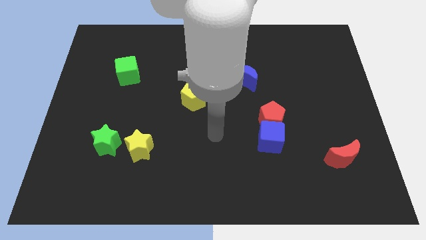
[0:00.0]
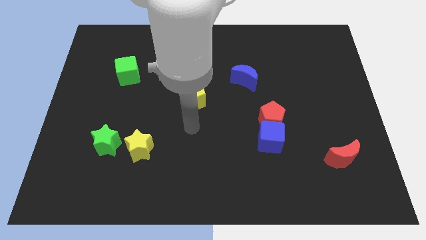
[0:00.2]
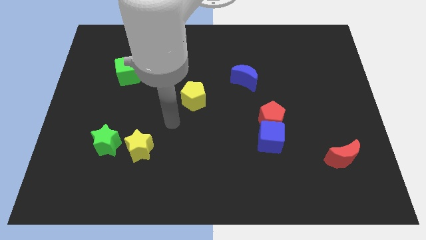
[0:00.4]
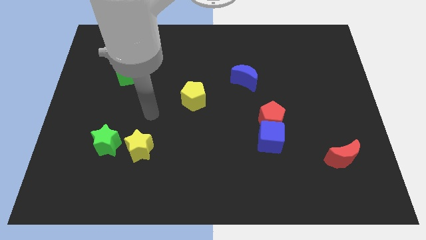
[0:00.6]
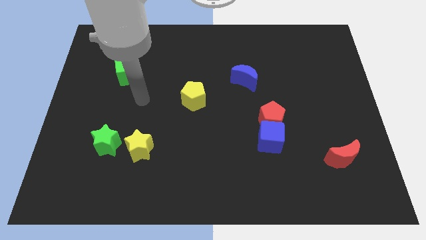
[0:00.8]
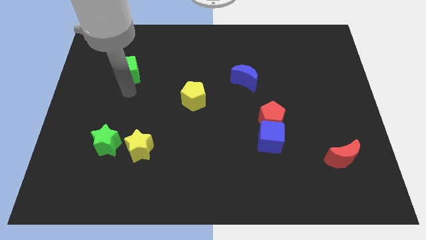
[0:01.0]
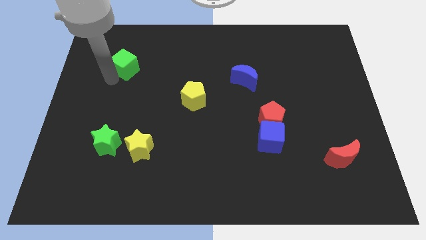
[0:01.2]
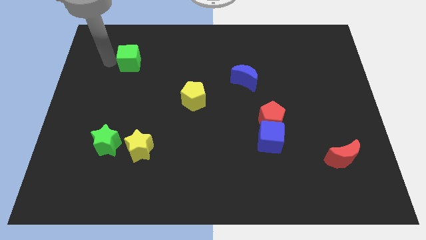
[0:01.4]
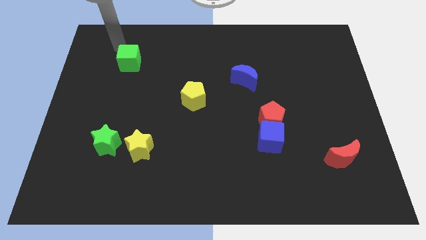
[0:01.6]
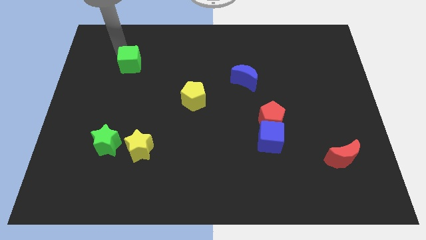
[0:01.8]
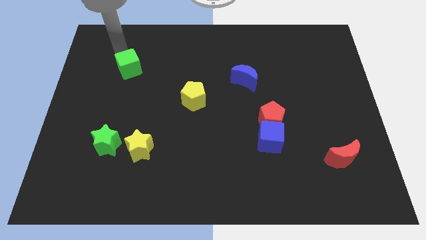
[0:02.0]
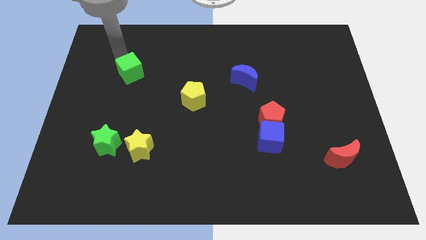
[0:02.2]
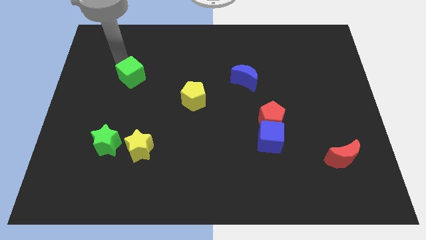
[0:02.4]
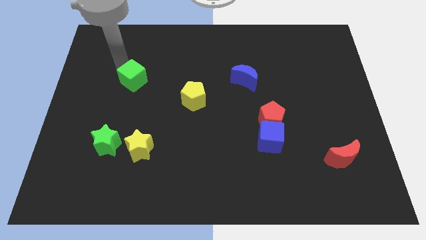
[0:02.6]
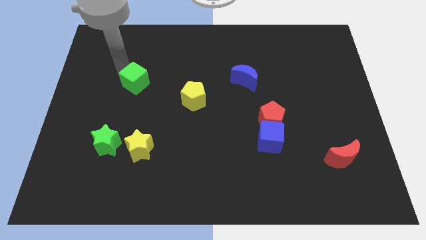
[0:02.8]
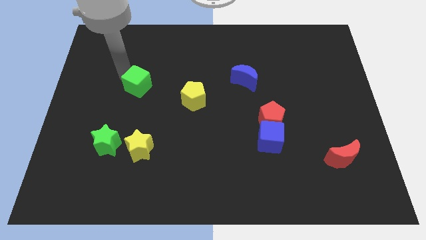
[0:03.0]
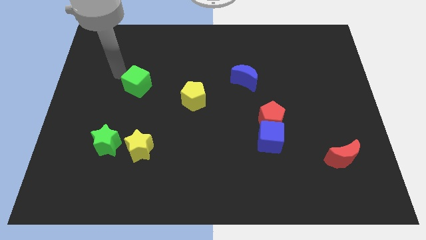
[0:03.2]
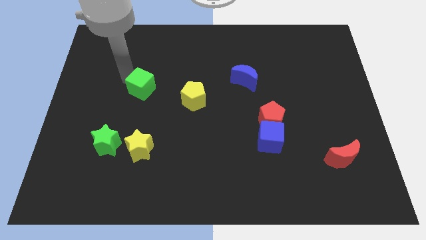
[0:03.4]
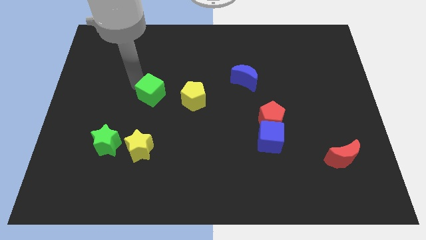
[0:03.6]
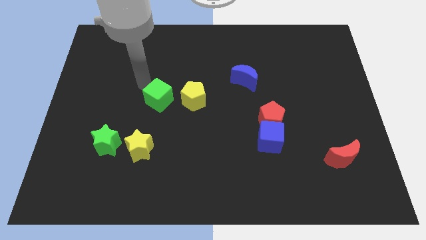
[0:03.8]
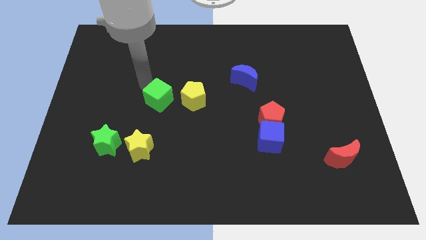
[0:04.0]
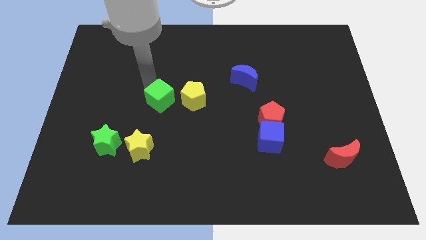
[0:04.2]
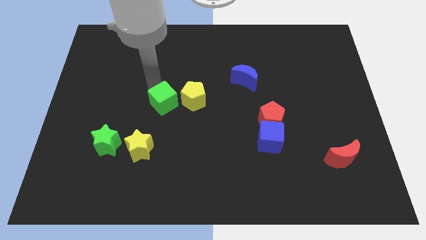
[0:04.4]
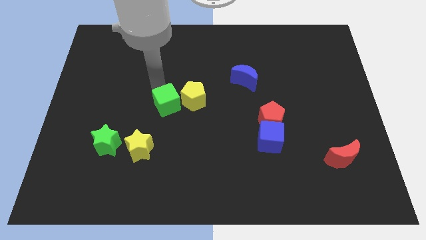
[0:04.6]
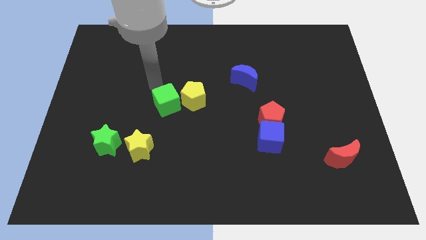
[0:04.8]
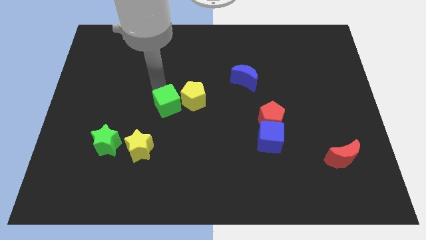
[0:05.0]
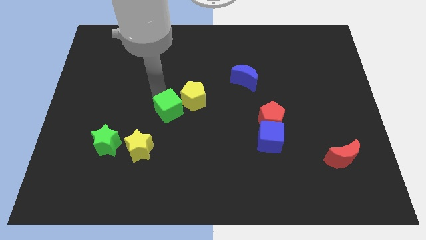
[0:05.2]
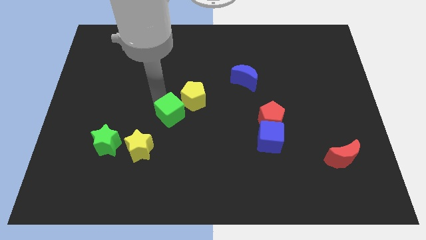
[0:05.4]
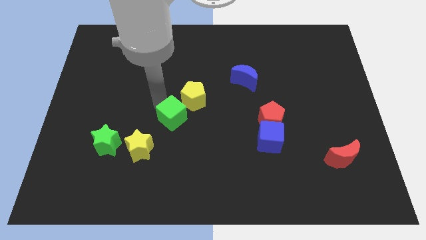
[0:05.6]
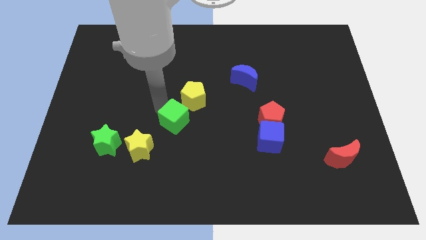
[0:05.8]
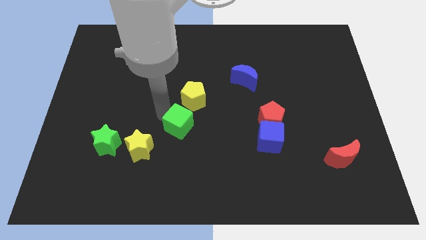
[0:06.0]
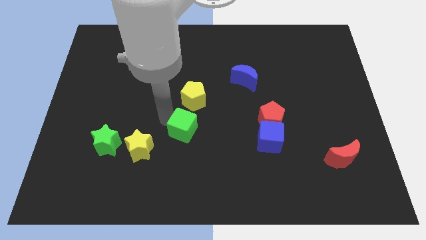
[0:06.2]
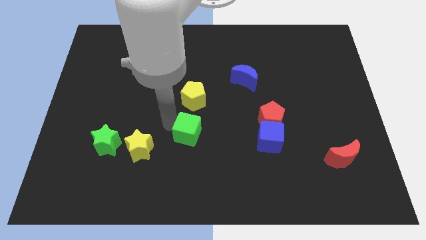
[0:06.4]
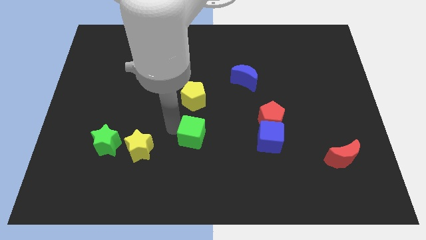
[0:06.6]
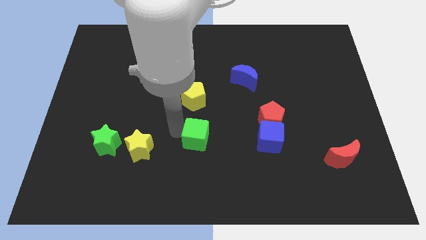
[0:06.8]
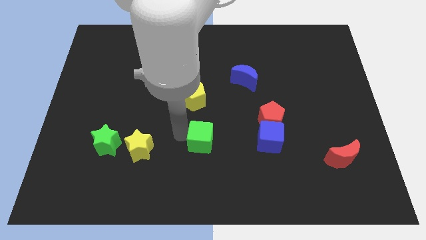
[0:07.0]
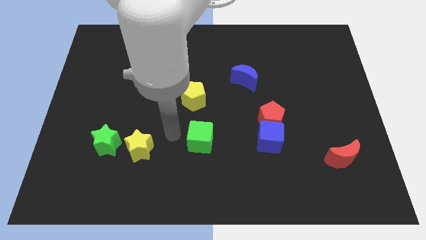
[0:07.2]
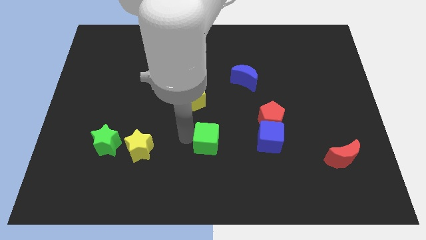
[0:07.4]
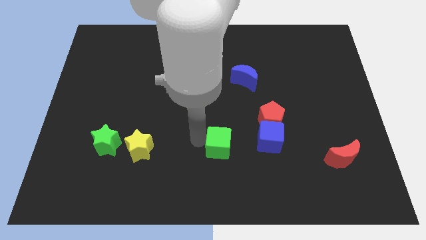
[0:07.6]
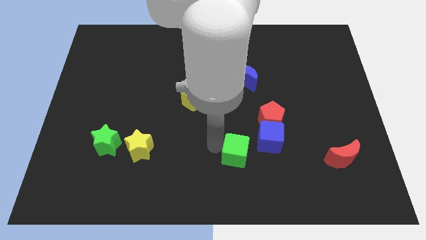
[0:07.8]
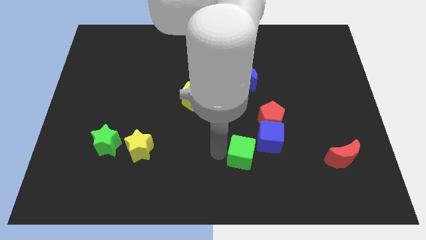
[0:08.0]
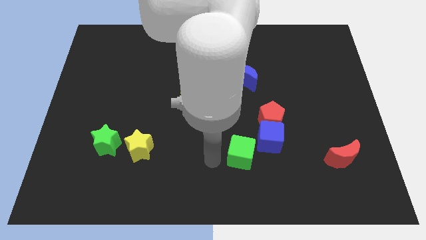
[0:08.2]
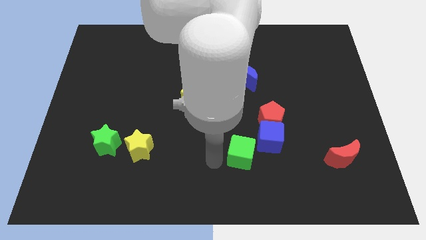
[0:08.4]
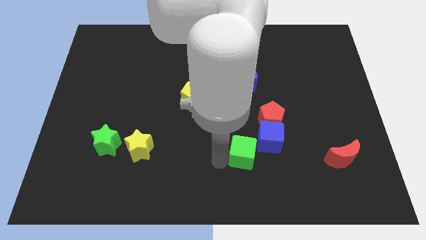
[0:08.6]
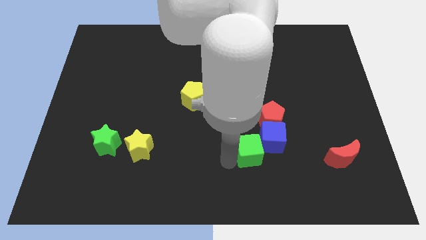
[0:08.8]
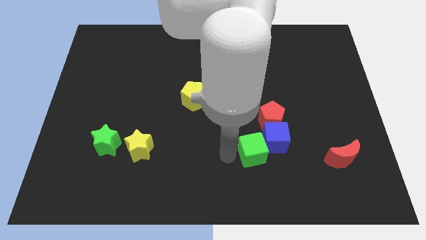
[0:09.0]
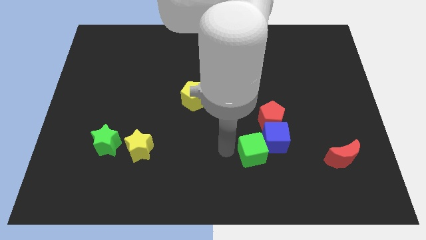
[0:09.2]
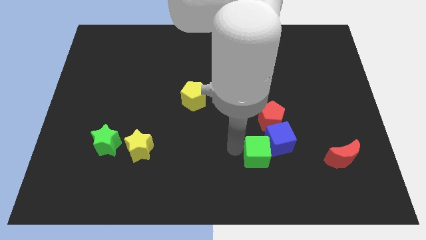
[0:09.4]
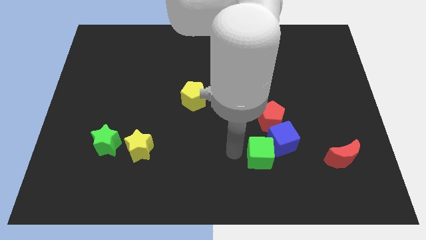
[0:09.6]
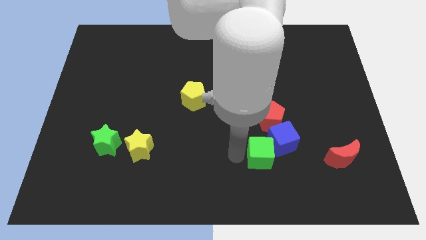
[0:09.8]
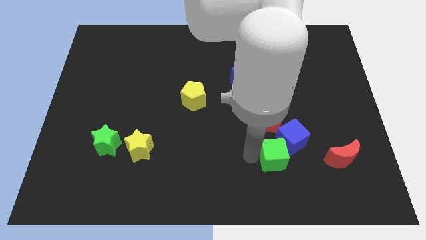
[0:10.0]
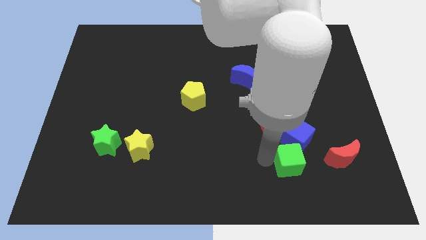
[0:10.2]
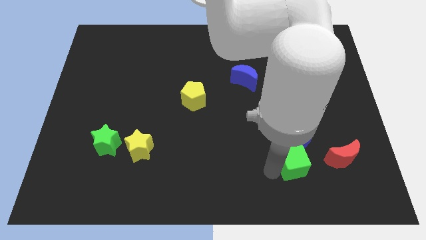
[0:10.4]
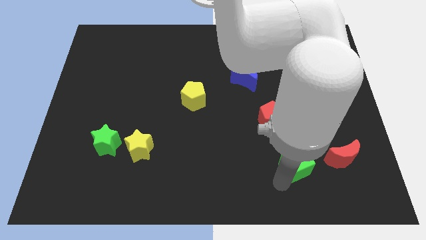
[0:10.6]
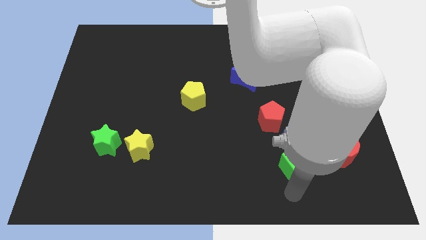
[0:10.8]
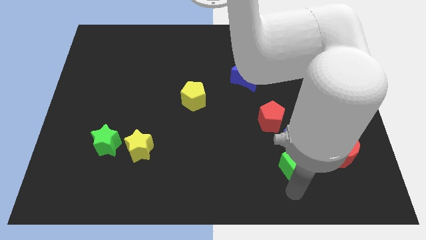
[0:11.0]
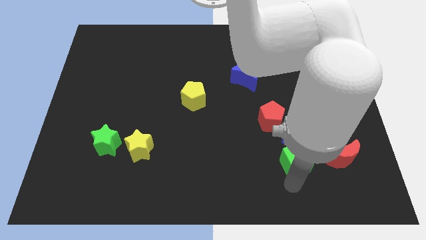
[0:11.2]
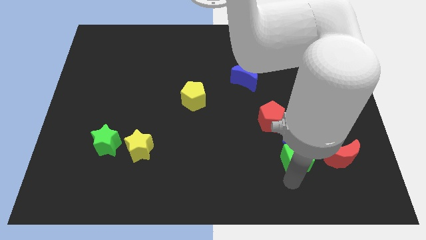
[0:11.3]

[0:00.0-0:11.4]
push the green cube diagonally down and to the right of the red pentagon
